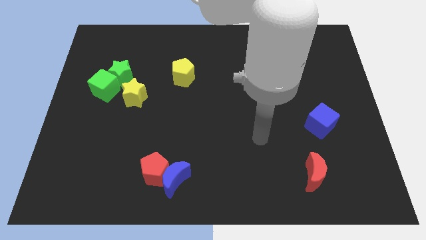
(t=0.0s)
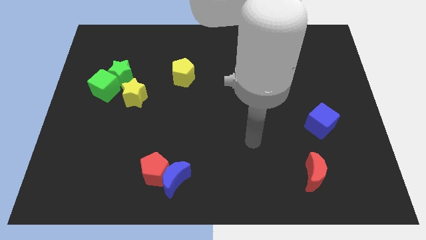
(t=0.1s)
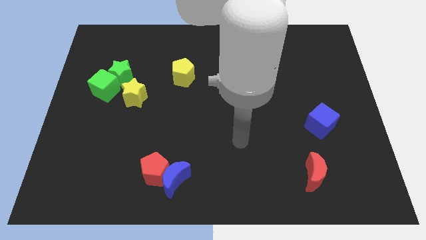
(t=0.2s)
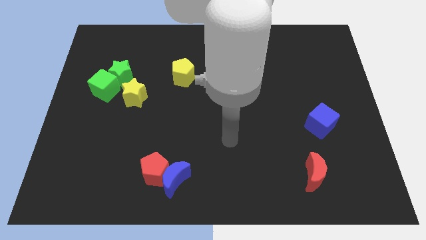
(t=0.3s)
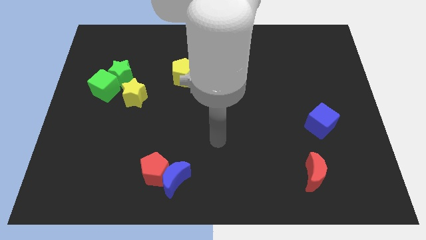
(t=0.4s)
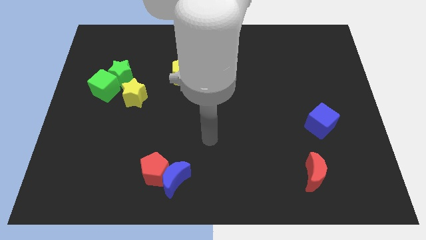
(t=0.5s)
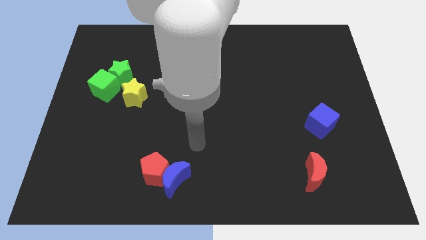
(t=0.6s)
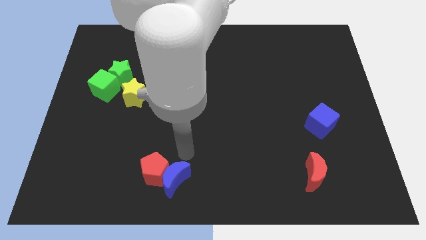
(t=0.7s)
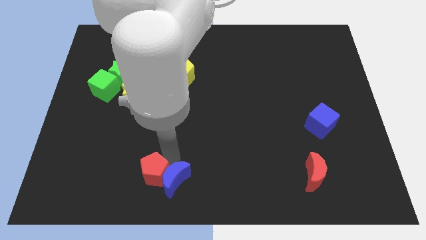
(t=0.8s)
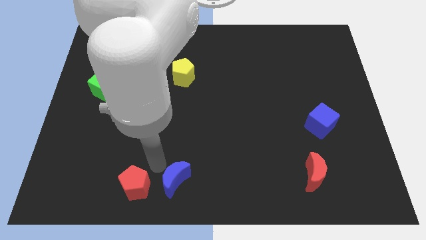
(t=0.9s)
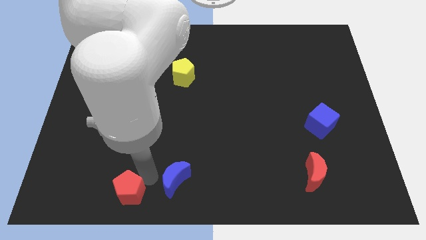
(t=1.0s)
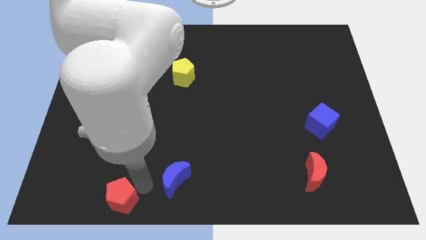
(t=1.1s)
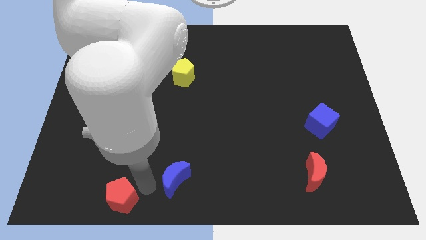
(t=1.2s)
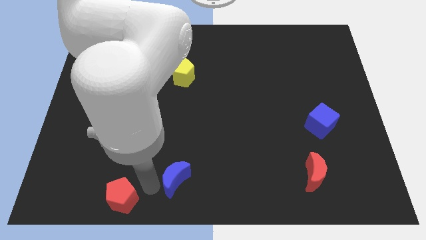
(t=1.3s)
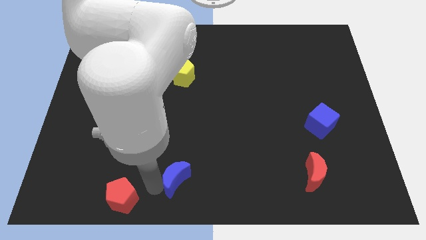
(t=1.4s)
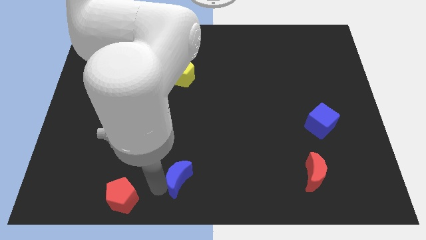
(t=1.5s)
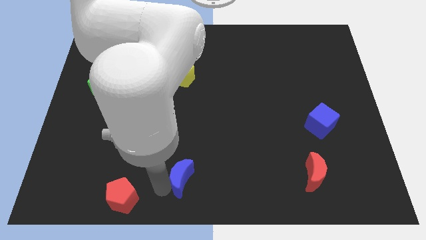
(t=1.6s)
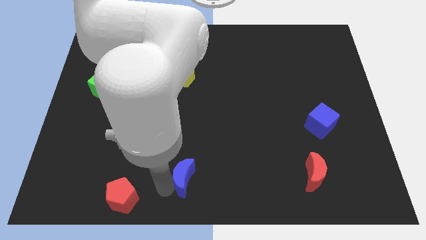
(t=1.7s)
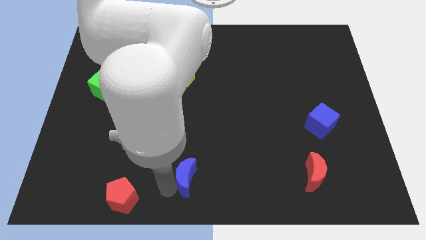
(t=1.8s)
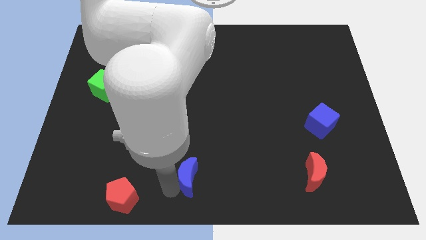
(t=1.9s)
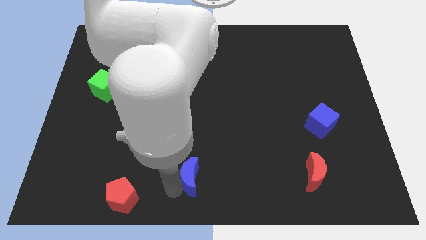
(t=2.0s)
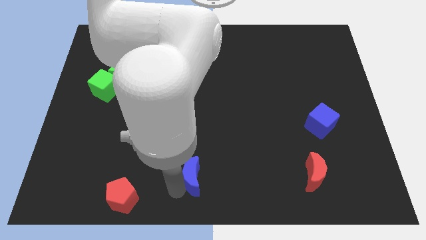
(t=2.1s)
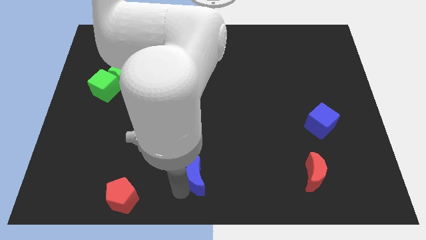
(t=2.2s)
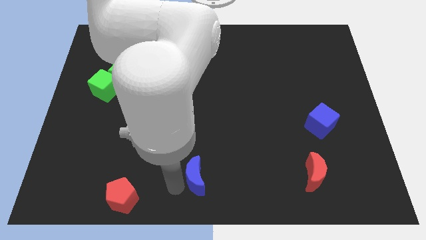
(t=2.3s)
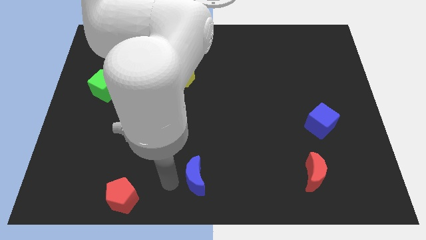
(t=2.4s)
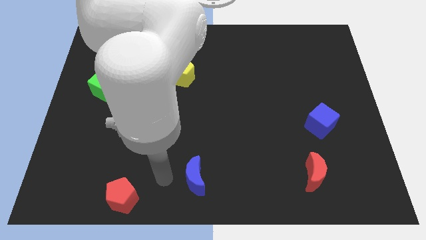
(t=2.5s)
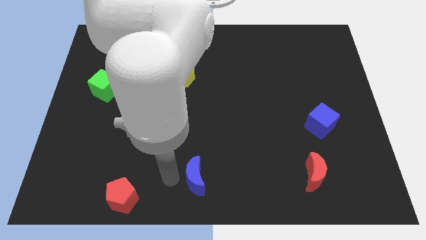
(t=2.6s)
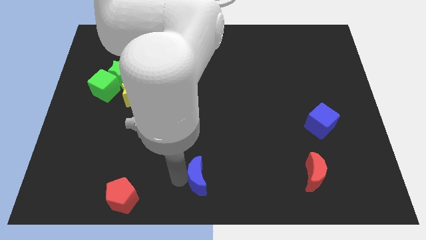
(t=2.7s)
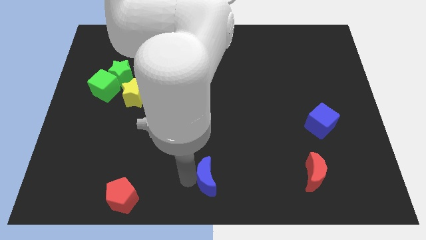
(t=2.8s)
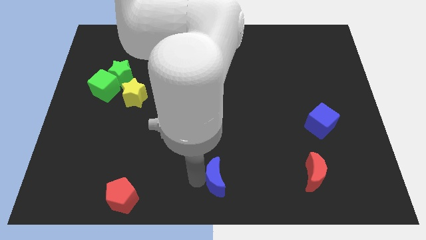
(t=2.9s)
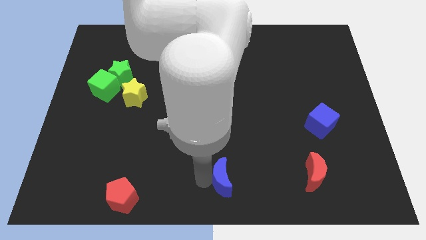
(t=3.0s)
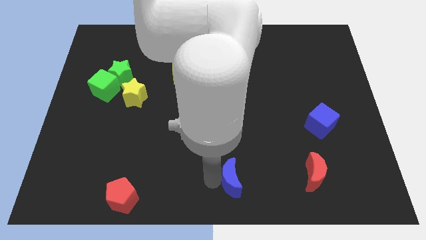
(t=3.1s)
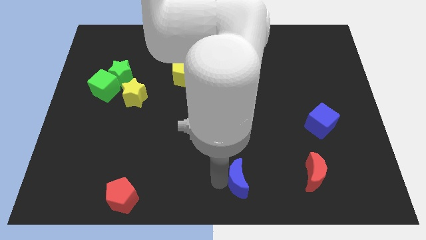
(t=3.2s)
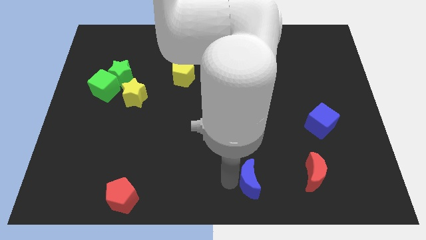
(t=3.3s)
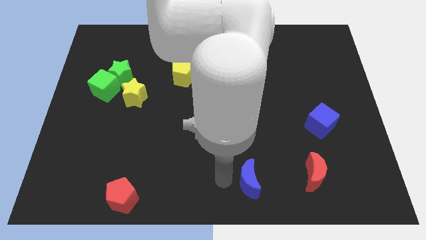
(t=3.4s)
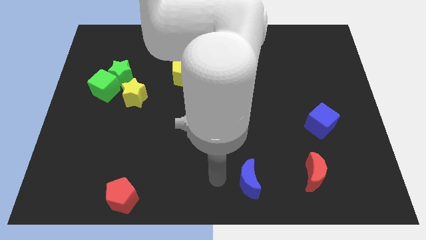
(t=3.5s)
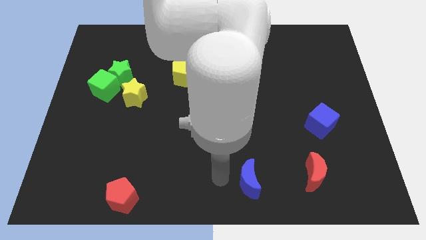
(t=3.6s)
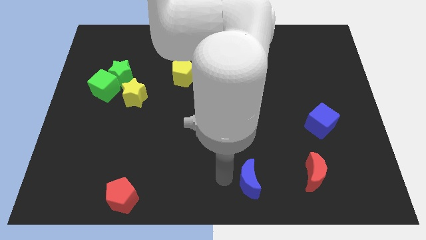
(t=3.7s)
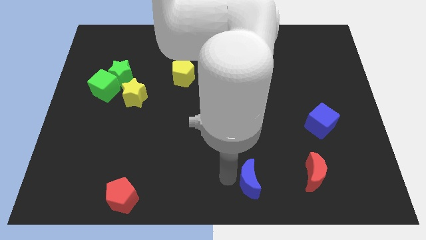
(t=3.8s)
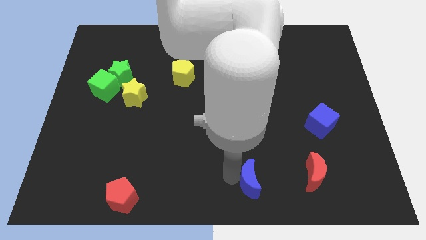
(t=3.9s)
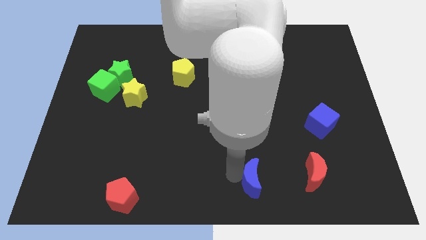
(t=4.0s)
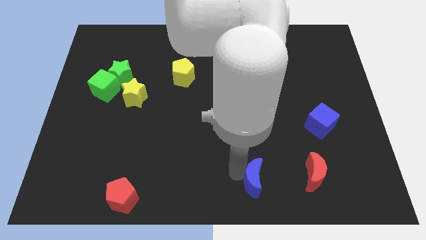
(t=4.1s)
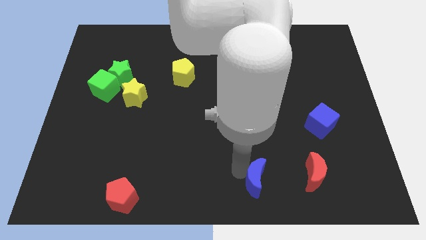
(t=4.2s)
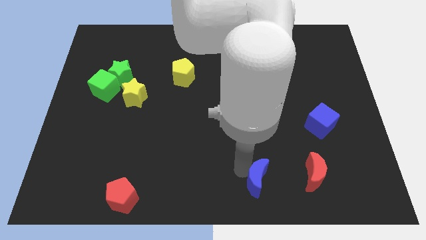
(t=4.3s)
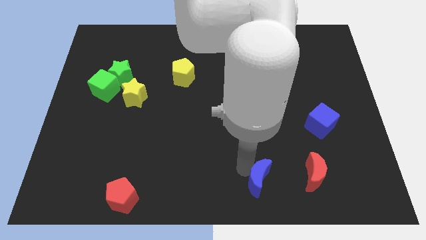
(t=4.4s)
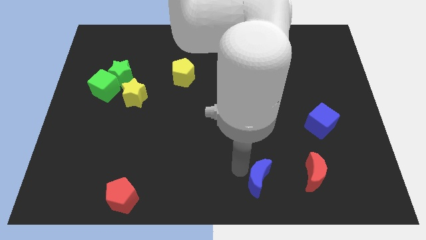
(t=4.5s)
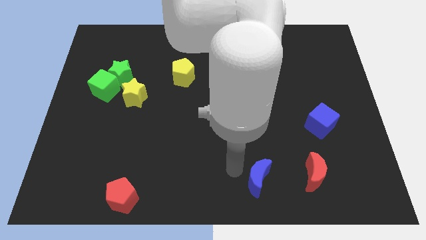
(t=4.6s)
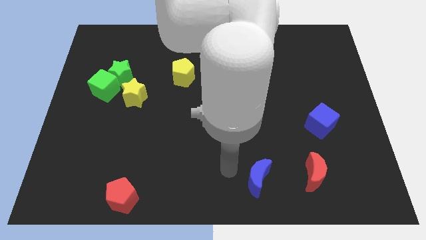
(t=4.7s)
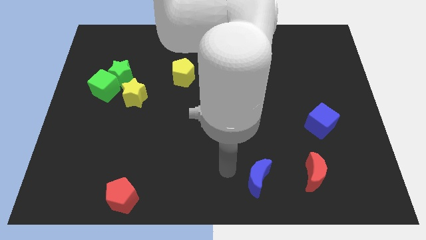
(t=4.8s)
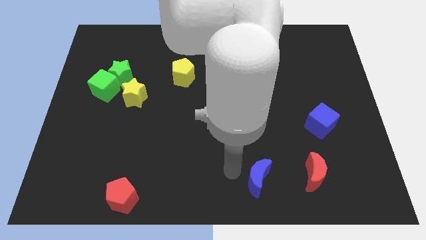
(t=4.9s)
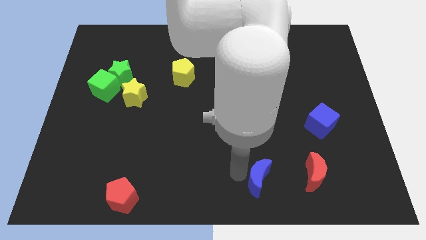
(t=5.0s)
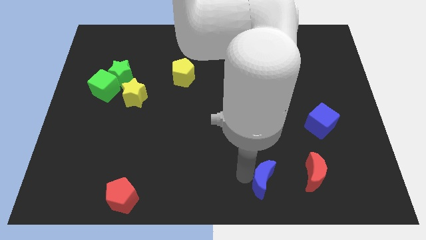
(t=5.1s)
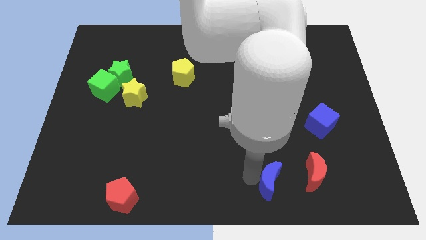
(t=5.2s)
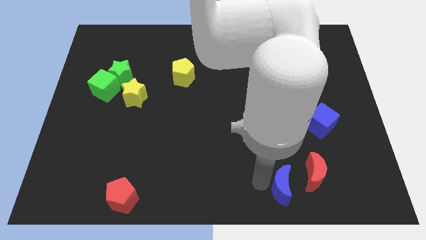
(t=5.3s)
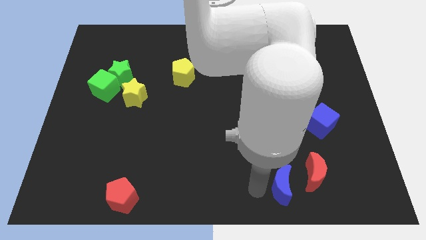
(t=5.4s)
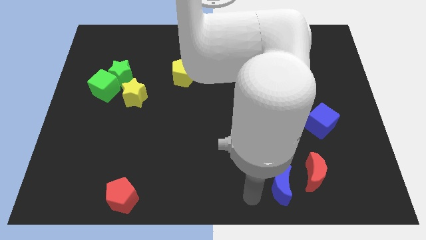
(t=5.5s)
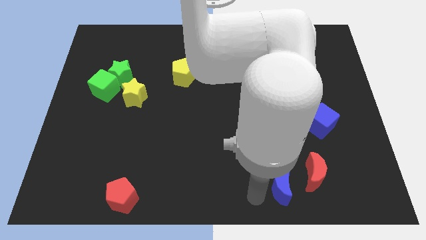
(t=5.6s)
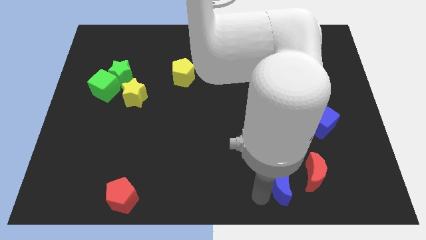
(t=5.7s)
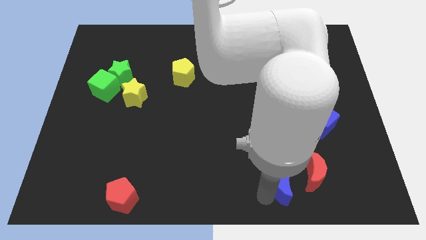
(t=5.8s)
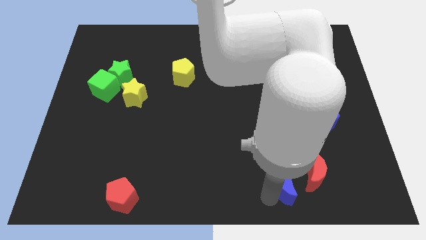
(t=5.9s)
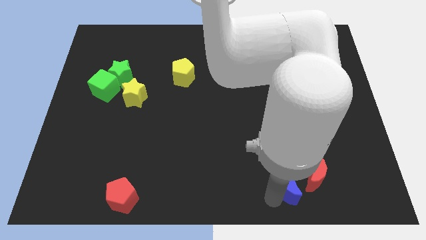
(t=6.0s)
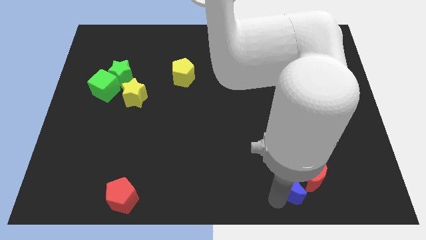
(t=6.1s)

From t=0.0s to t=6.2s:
slide the blue moon towards the red moon

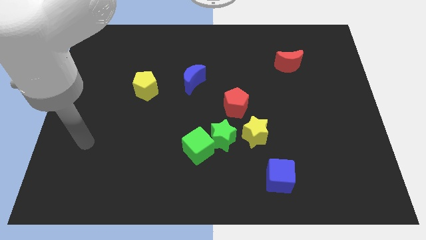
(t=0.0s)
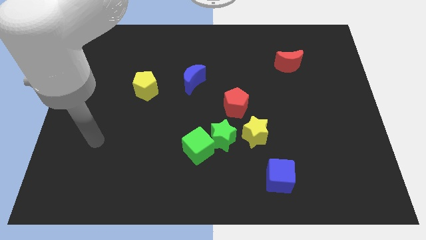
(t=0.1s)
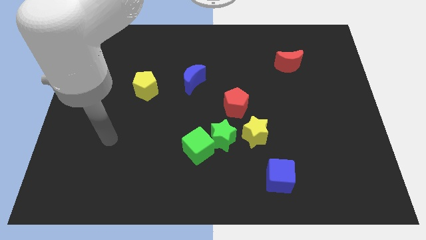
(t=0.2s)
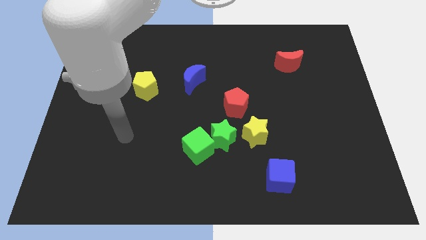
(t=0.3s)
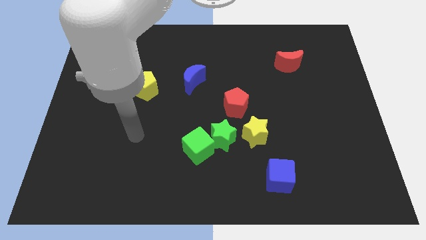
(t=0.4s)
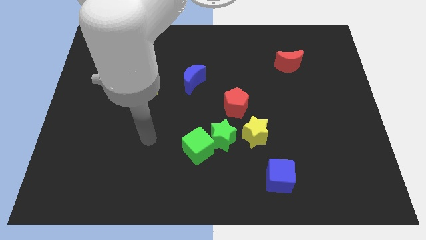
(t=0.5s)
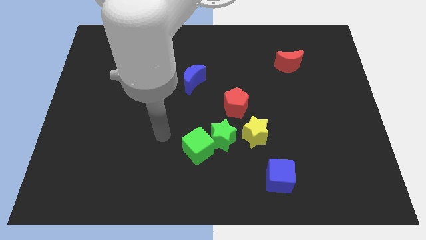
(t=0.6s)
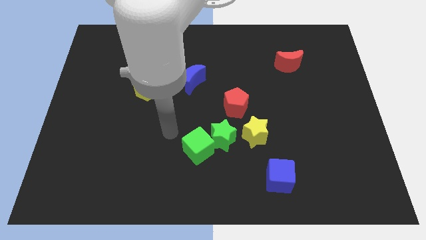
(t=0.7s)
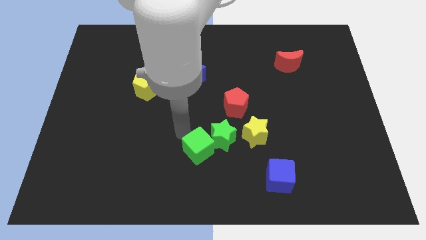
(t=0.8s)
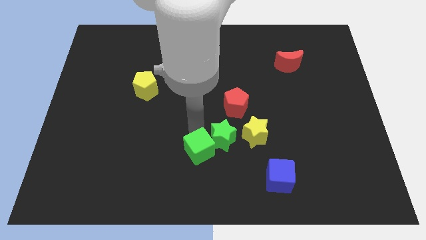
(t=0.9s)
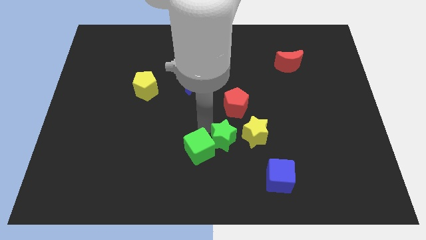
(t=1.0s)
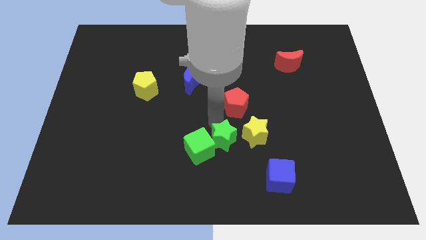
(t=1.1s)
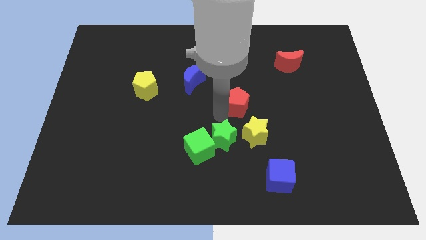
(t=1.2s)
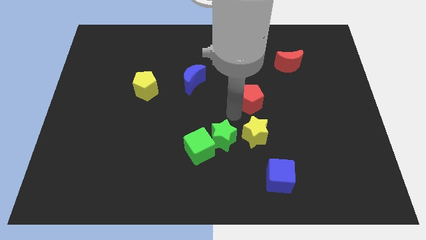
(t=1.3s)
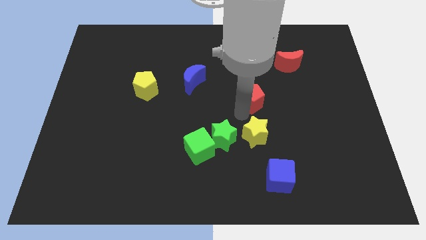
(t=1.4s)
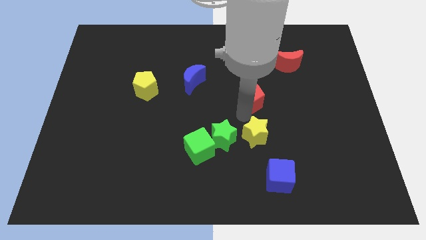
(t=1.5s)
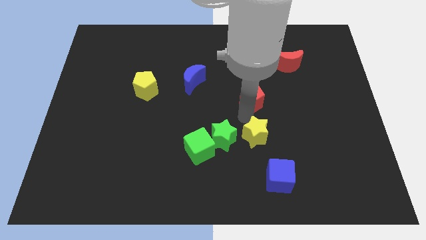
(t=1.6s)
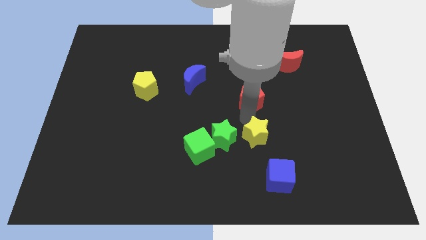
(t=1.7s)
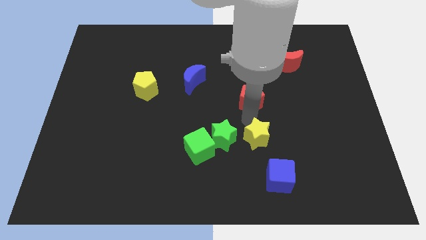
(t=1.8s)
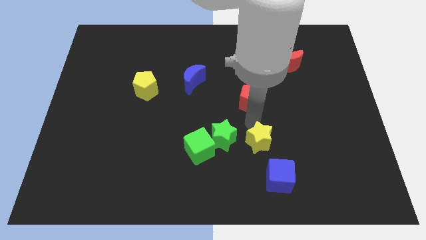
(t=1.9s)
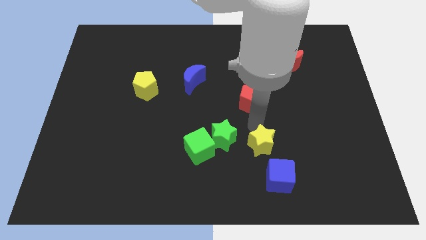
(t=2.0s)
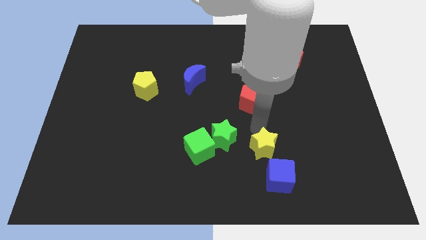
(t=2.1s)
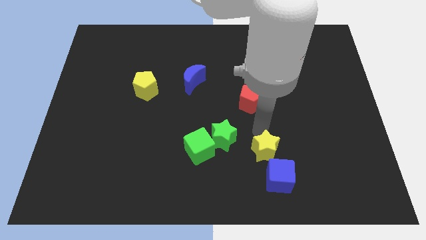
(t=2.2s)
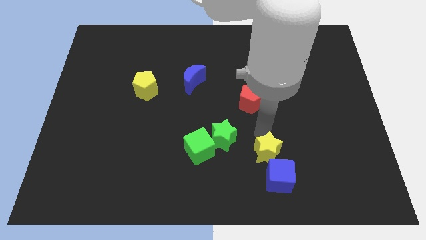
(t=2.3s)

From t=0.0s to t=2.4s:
push the yellow star close to the blue cube
